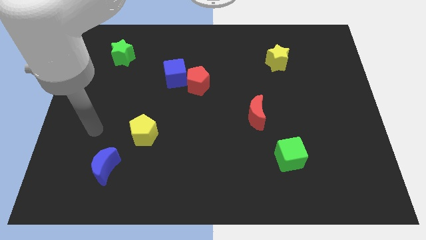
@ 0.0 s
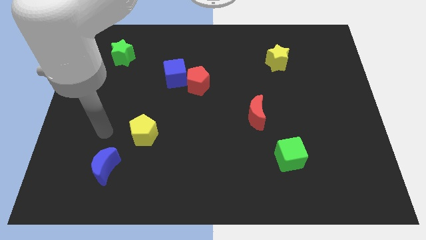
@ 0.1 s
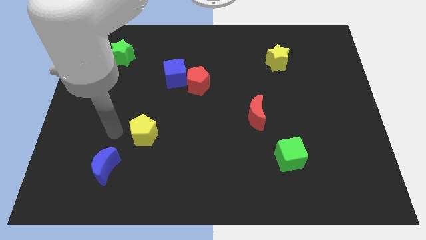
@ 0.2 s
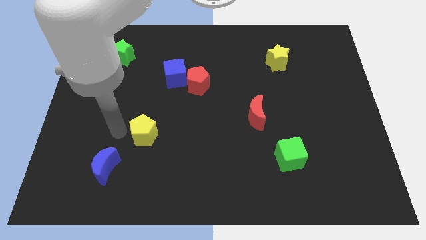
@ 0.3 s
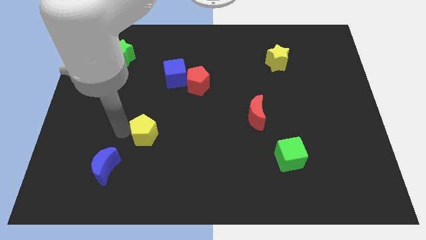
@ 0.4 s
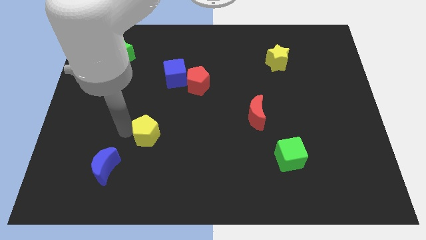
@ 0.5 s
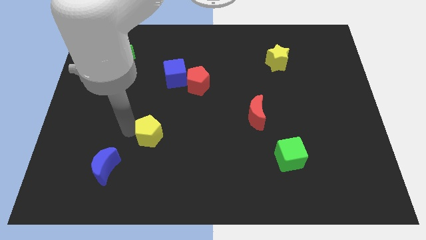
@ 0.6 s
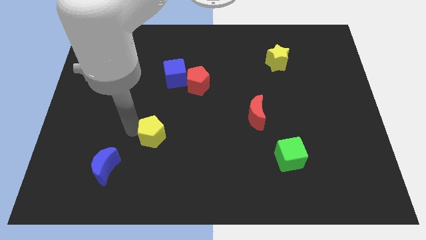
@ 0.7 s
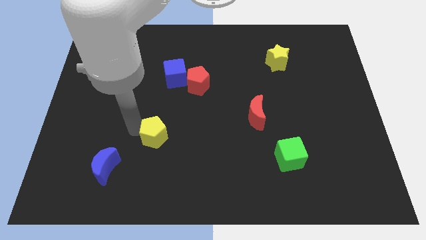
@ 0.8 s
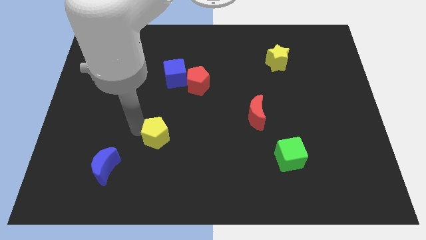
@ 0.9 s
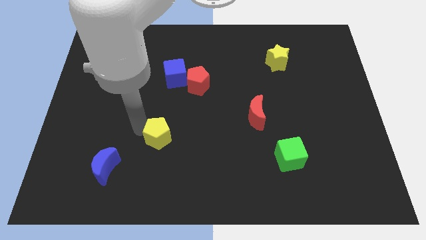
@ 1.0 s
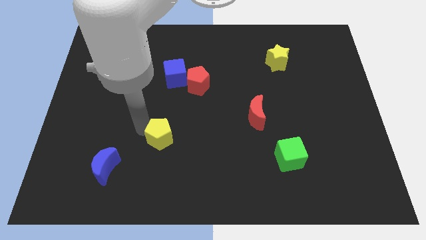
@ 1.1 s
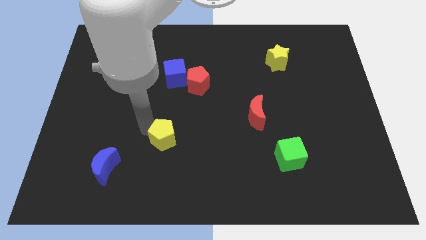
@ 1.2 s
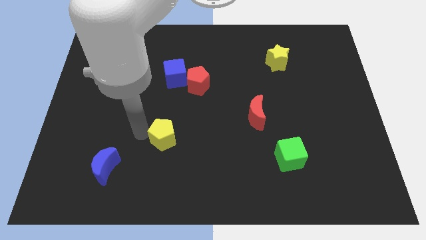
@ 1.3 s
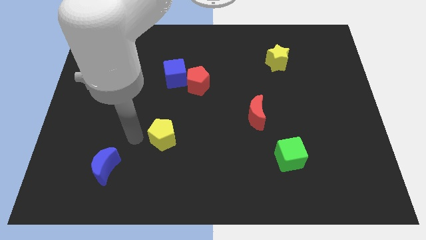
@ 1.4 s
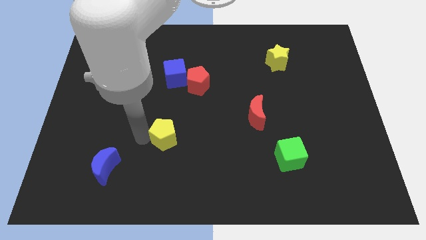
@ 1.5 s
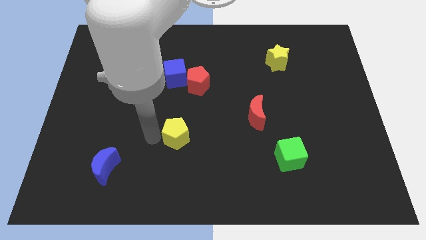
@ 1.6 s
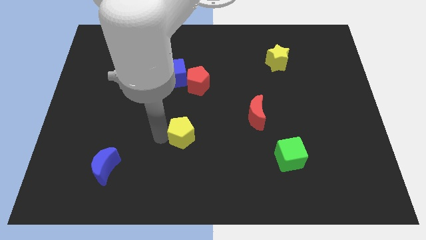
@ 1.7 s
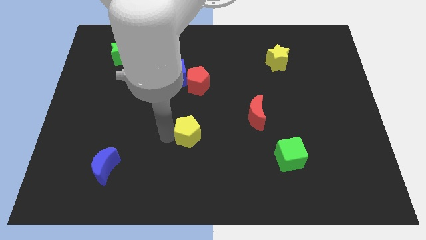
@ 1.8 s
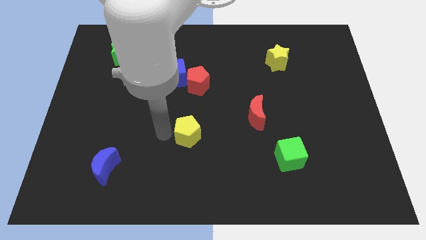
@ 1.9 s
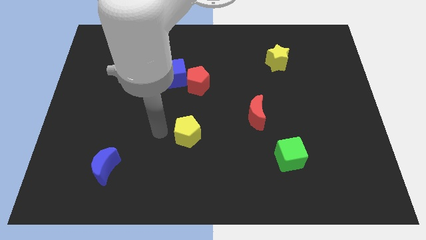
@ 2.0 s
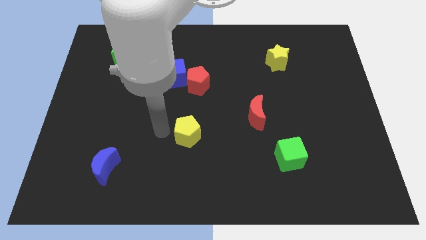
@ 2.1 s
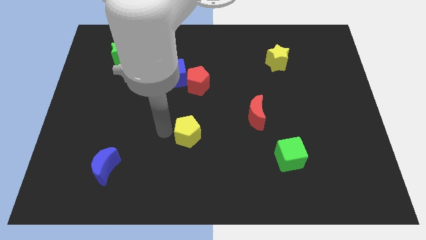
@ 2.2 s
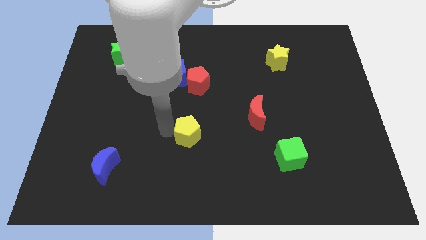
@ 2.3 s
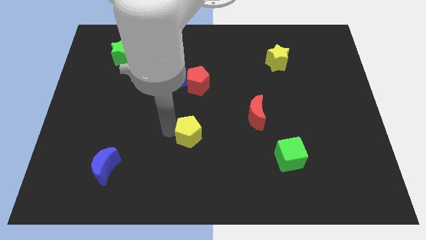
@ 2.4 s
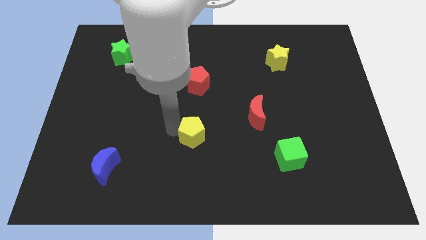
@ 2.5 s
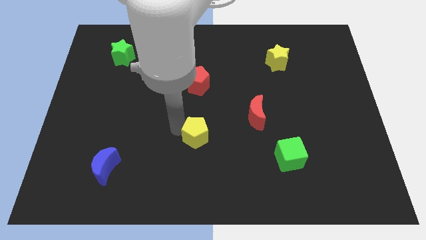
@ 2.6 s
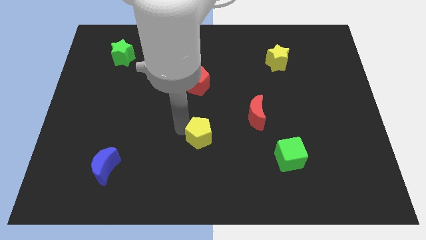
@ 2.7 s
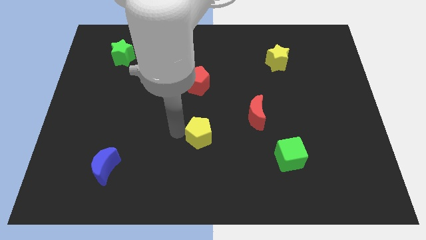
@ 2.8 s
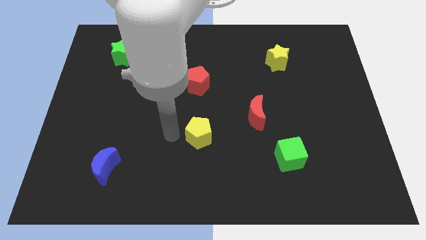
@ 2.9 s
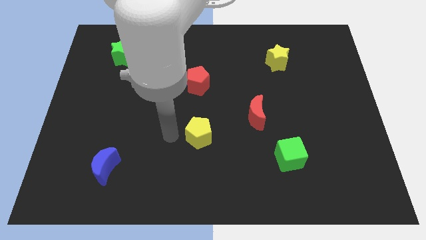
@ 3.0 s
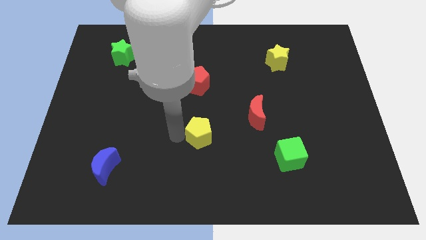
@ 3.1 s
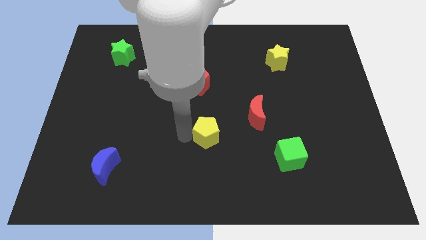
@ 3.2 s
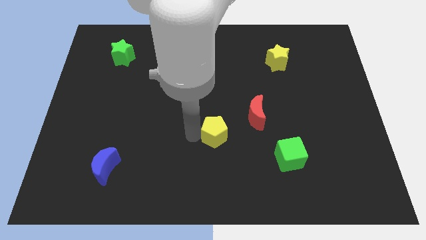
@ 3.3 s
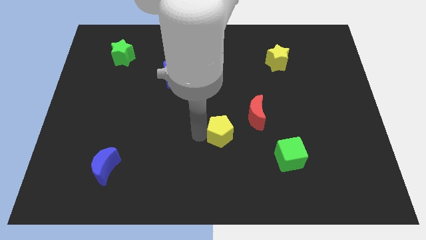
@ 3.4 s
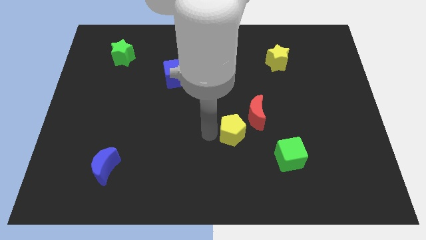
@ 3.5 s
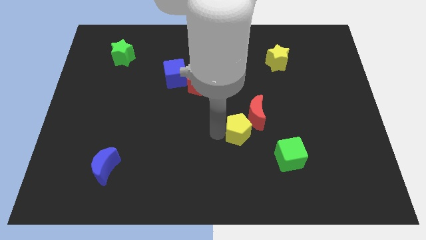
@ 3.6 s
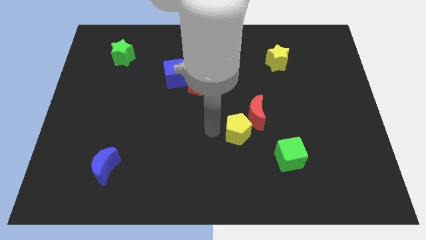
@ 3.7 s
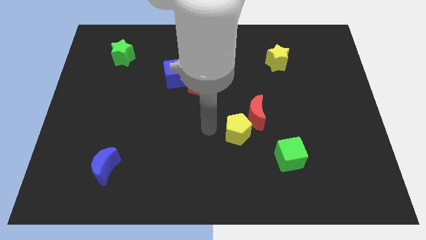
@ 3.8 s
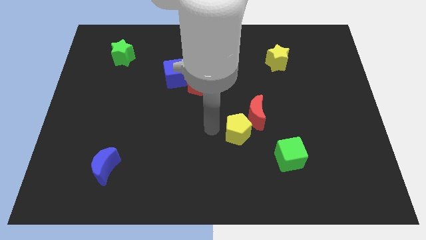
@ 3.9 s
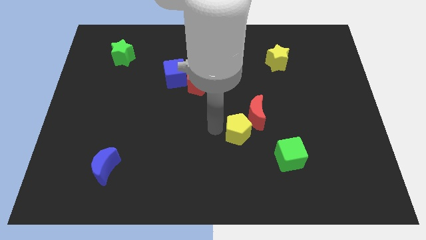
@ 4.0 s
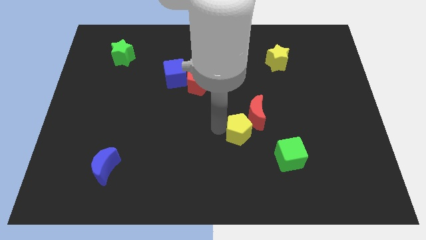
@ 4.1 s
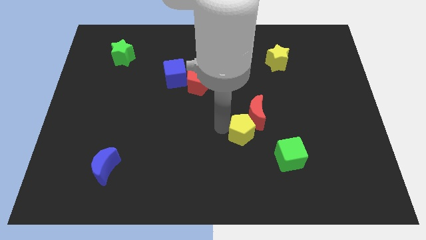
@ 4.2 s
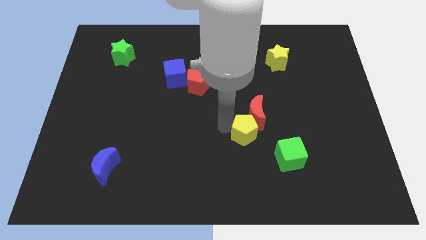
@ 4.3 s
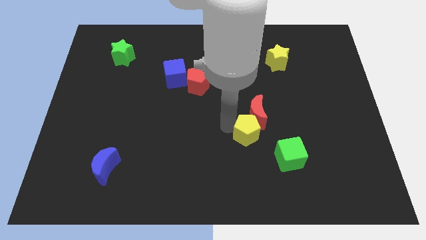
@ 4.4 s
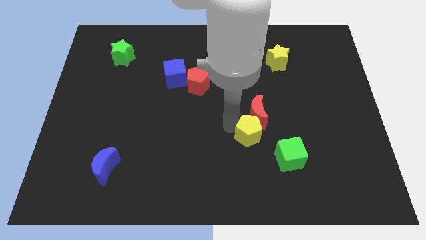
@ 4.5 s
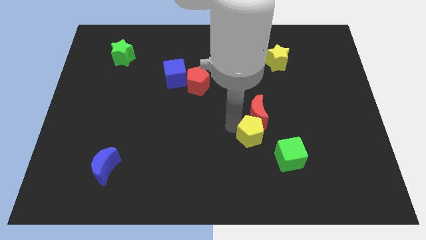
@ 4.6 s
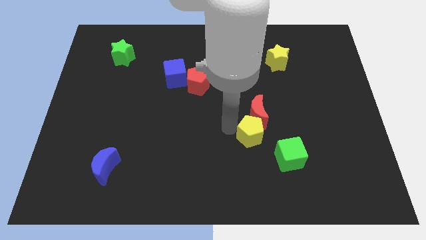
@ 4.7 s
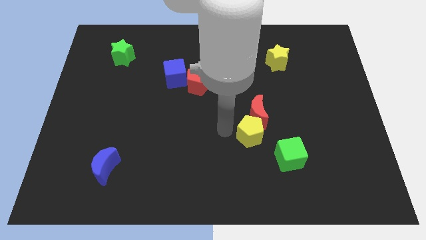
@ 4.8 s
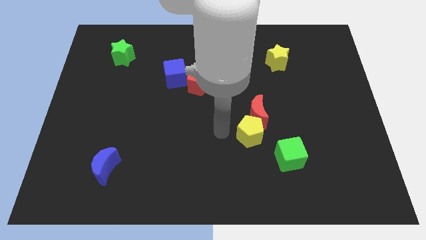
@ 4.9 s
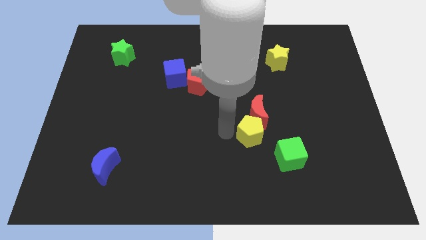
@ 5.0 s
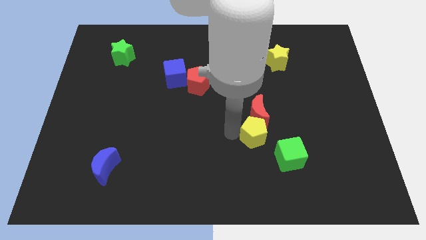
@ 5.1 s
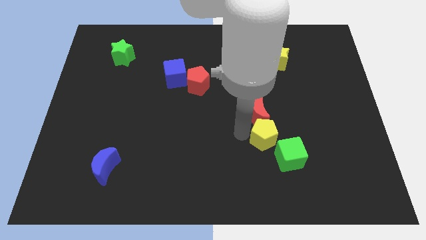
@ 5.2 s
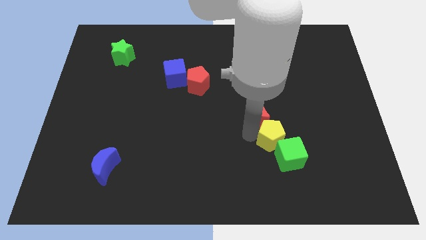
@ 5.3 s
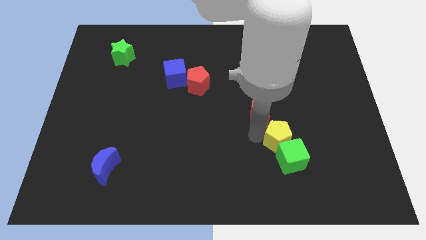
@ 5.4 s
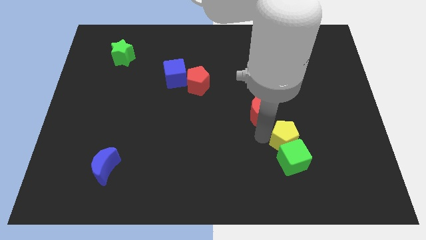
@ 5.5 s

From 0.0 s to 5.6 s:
slide the yellow pentagon diagonally up and to the right of the green cube

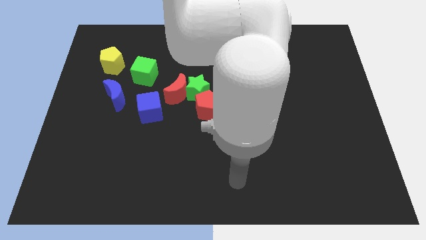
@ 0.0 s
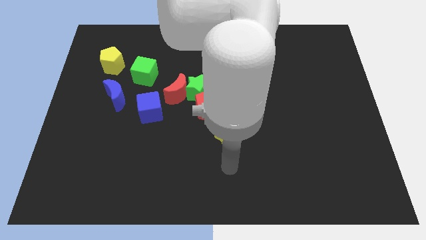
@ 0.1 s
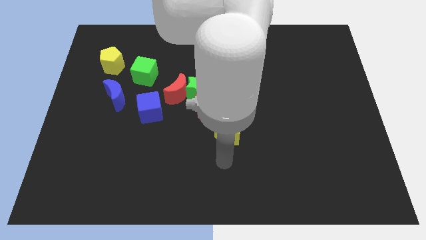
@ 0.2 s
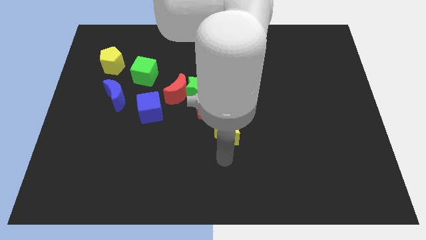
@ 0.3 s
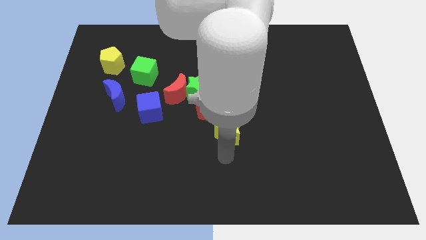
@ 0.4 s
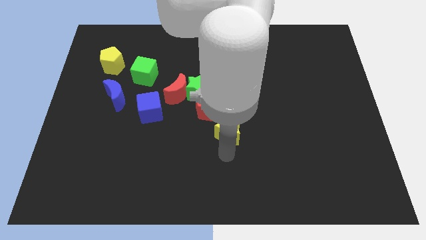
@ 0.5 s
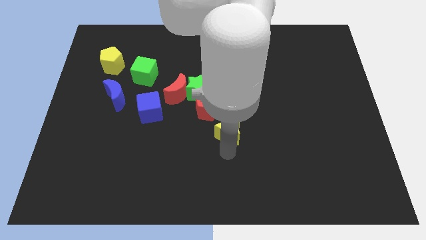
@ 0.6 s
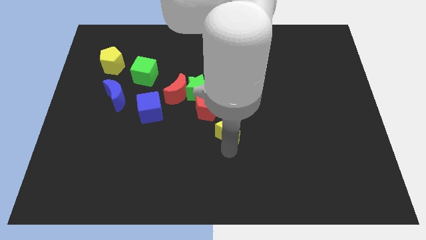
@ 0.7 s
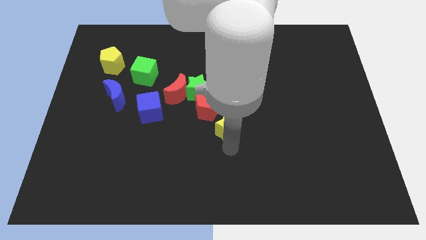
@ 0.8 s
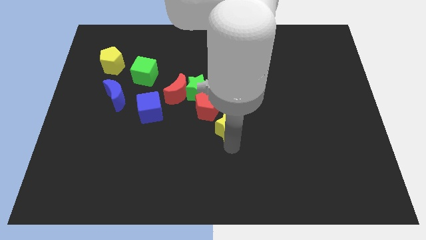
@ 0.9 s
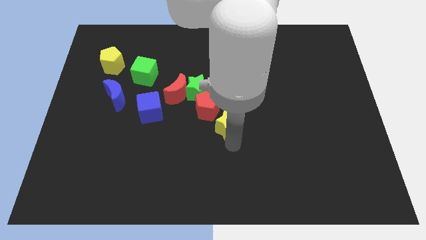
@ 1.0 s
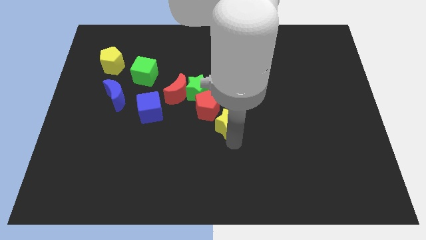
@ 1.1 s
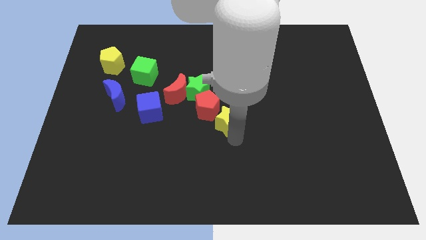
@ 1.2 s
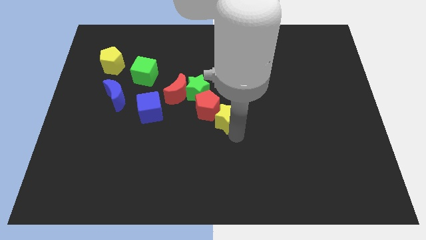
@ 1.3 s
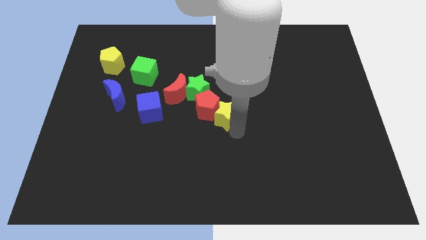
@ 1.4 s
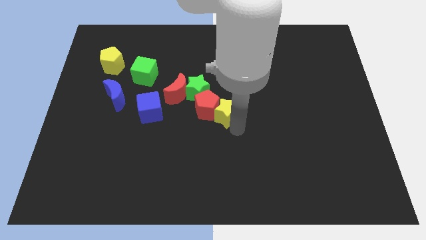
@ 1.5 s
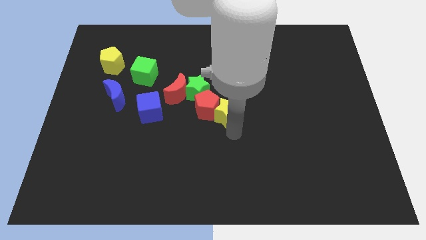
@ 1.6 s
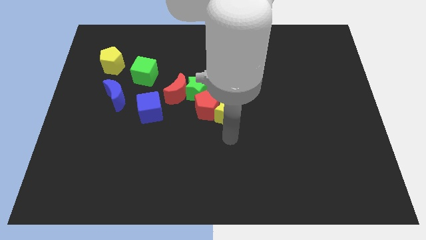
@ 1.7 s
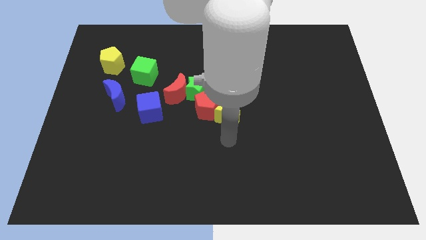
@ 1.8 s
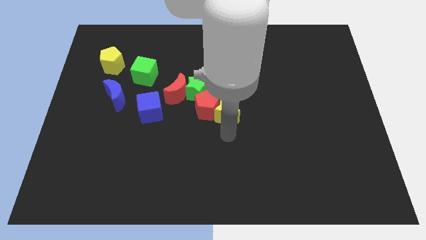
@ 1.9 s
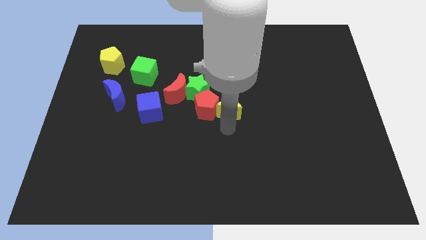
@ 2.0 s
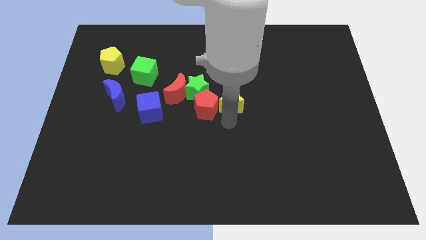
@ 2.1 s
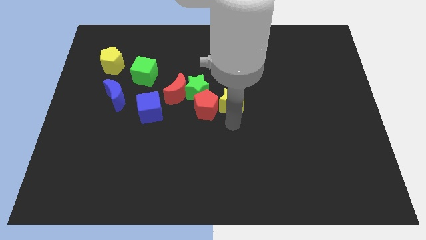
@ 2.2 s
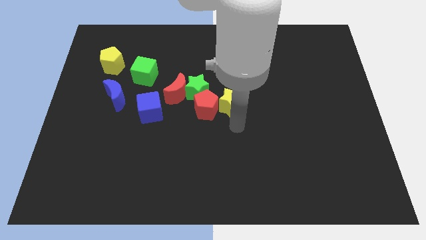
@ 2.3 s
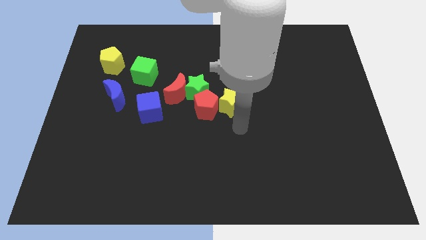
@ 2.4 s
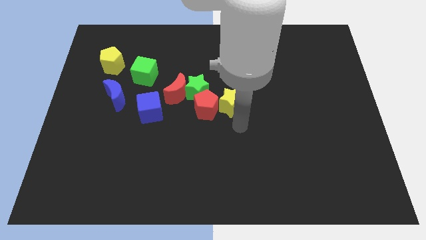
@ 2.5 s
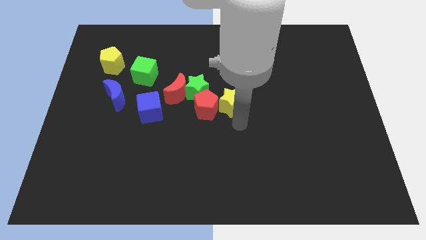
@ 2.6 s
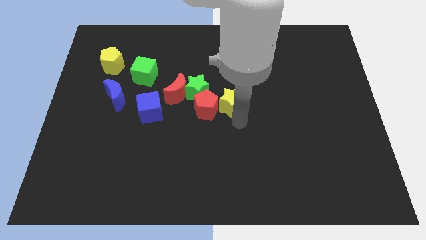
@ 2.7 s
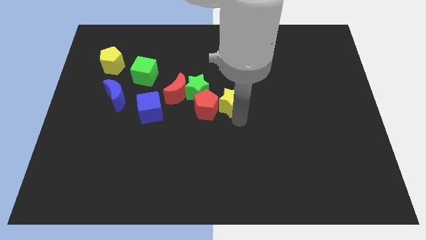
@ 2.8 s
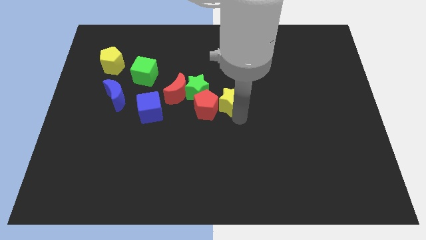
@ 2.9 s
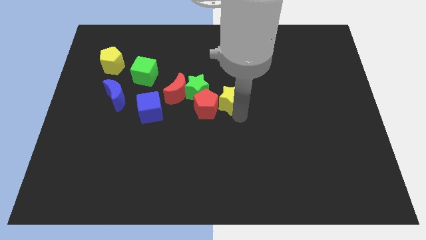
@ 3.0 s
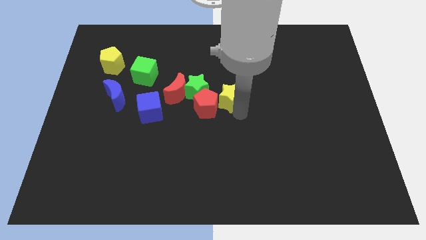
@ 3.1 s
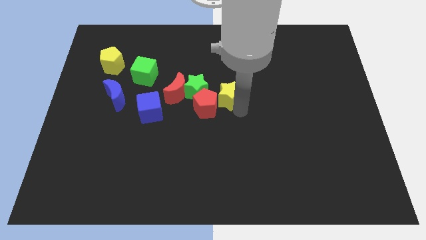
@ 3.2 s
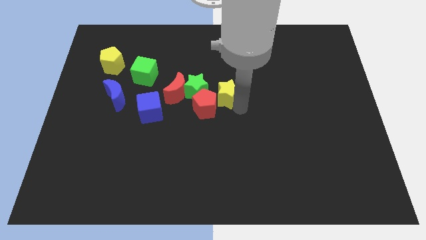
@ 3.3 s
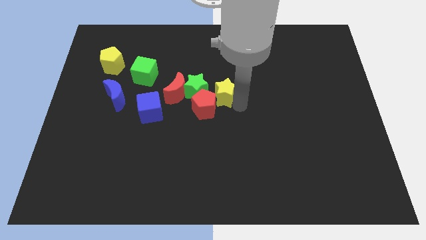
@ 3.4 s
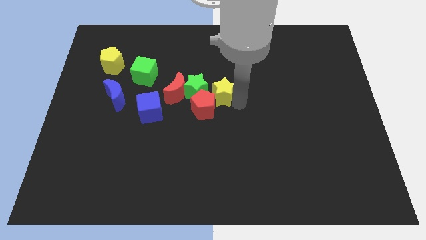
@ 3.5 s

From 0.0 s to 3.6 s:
put the yellow star to the top of the red pentagon
